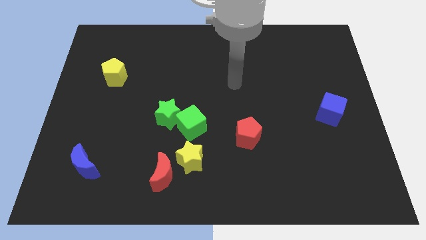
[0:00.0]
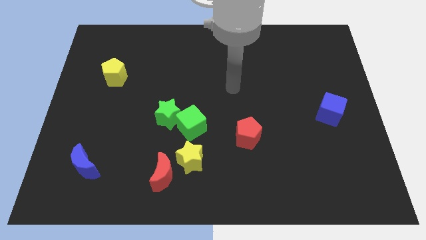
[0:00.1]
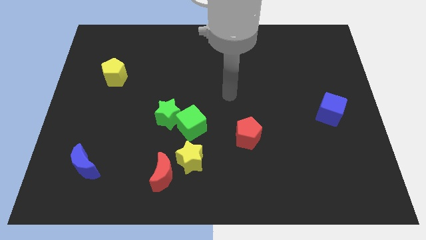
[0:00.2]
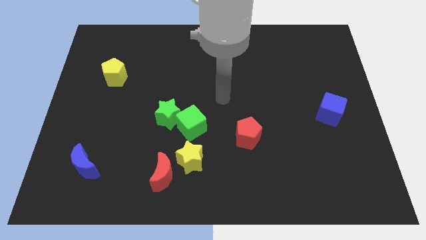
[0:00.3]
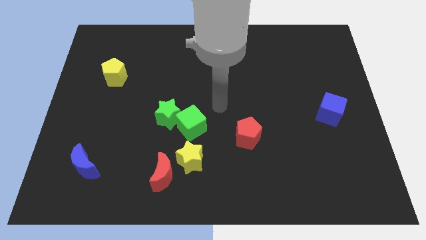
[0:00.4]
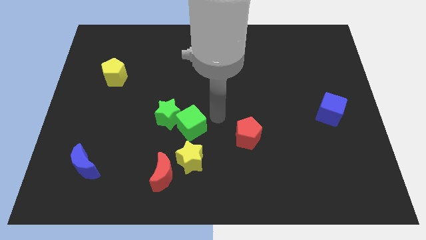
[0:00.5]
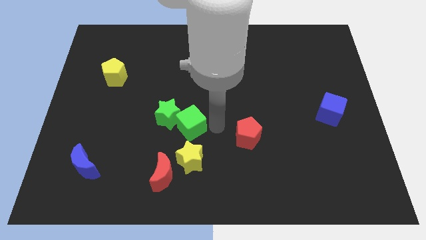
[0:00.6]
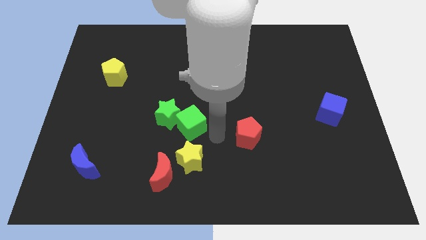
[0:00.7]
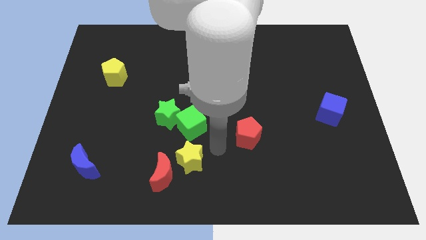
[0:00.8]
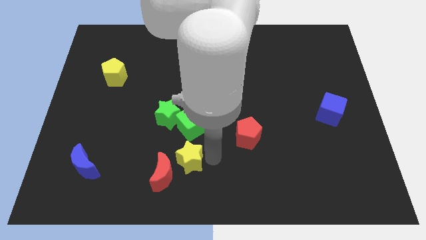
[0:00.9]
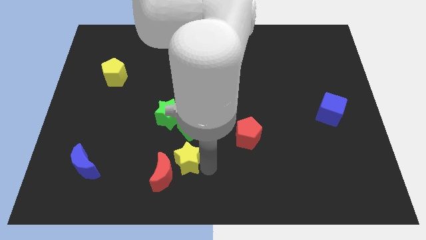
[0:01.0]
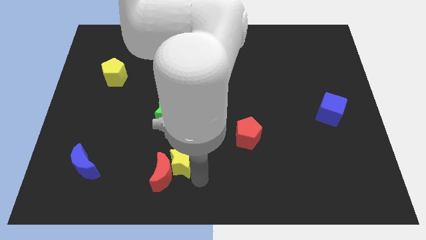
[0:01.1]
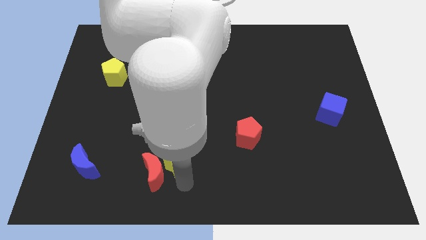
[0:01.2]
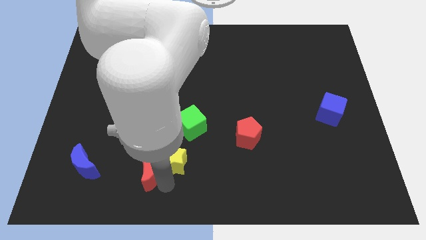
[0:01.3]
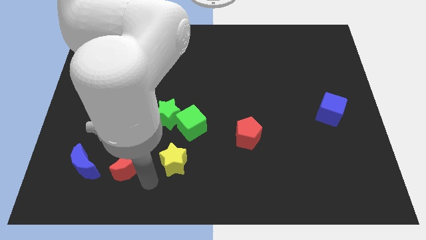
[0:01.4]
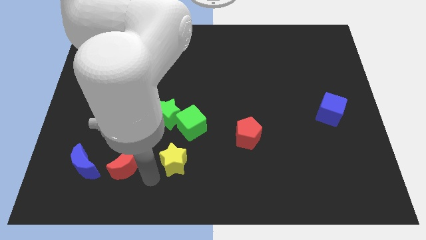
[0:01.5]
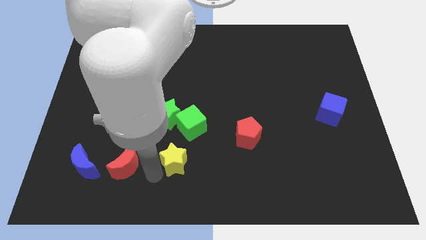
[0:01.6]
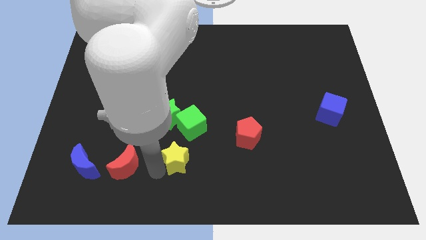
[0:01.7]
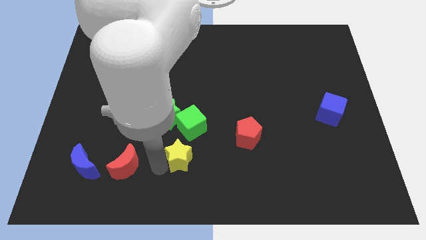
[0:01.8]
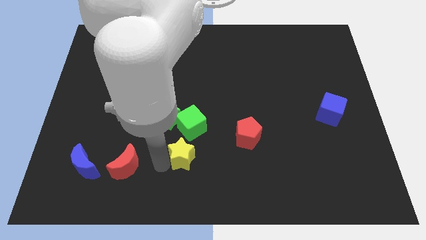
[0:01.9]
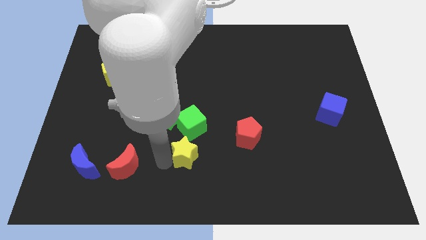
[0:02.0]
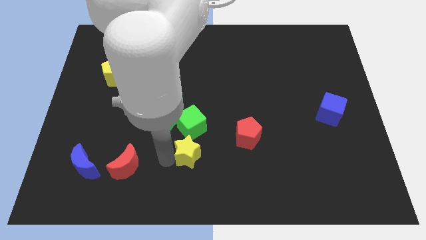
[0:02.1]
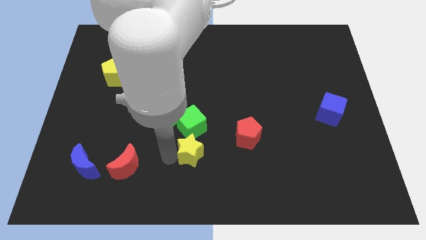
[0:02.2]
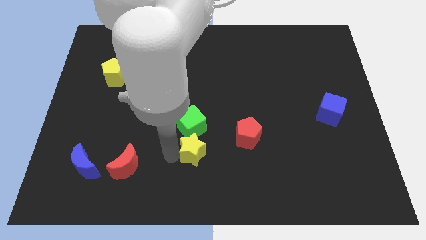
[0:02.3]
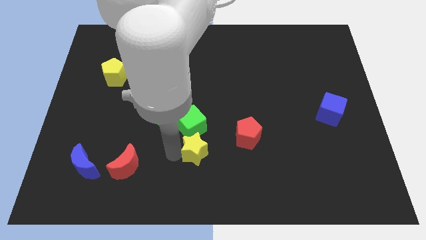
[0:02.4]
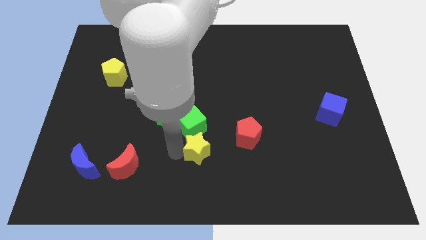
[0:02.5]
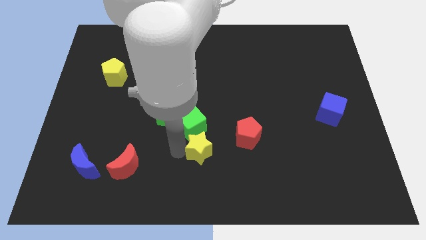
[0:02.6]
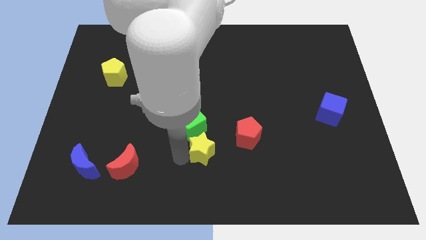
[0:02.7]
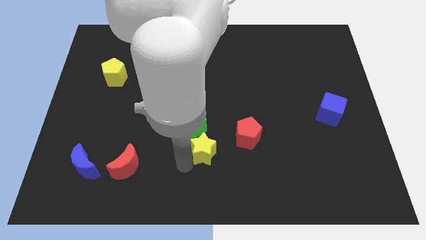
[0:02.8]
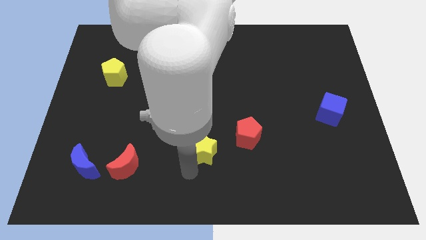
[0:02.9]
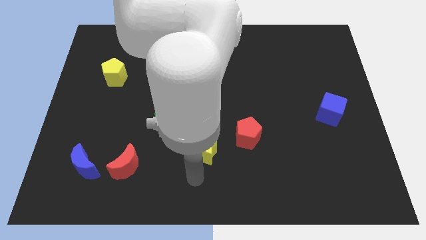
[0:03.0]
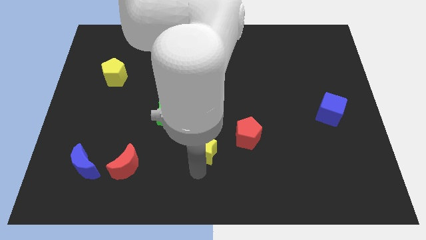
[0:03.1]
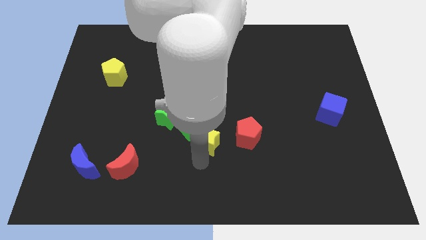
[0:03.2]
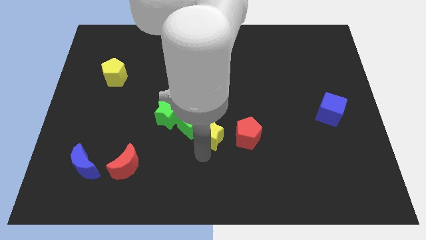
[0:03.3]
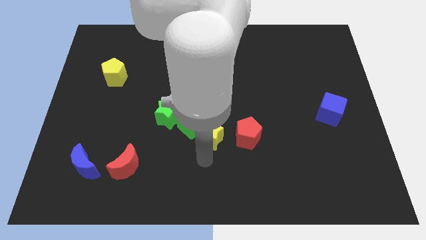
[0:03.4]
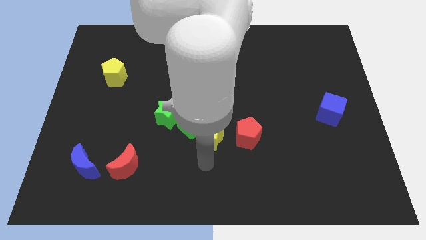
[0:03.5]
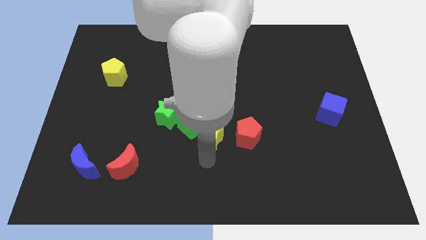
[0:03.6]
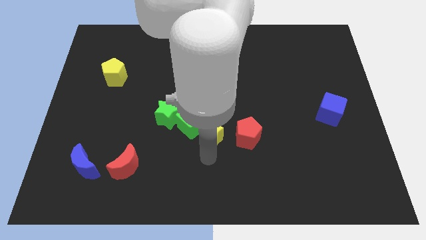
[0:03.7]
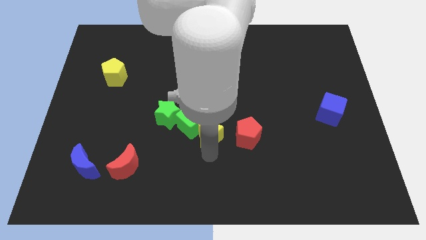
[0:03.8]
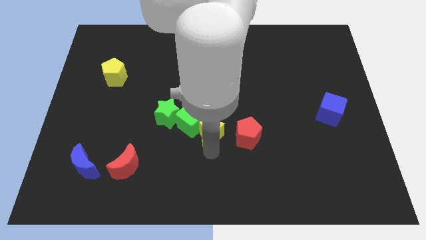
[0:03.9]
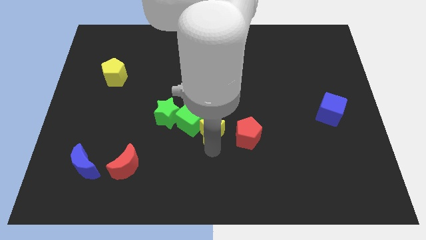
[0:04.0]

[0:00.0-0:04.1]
push the yellow star somewhat upwards

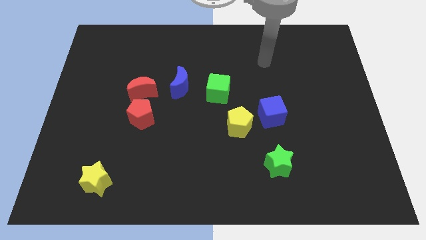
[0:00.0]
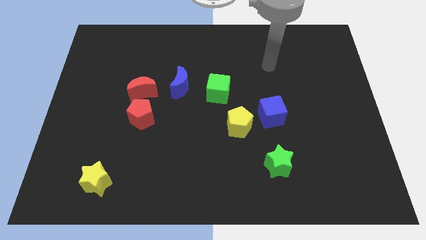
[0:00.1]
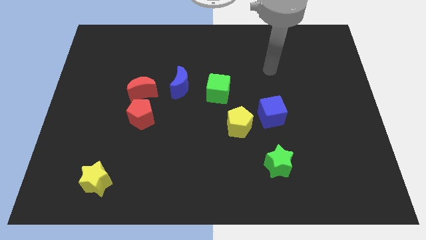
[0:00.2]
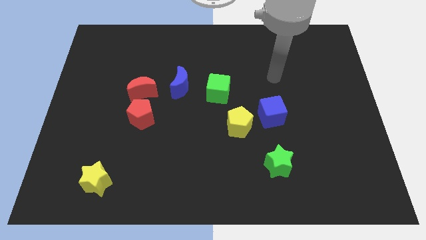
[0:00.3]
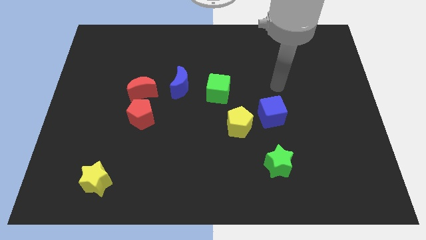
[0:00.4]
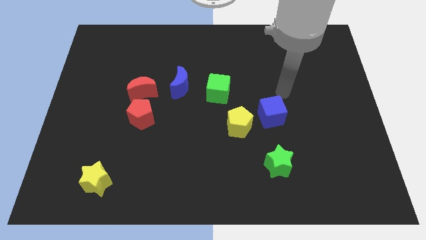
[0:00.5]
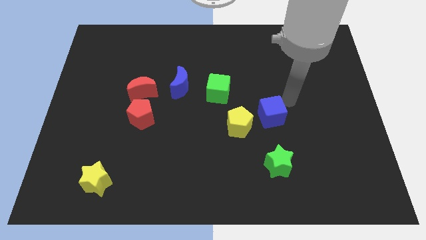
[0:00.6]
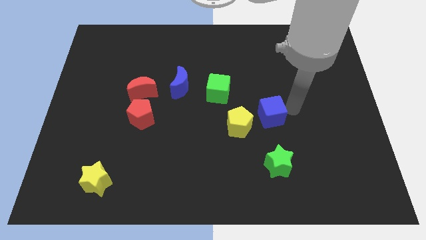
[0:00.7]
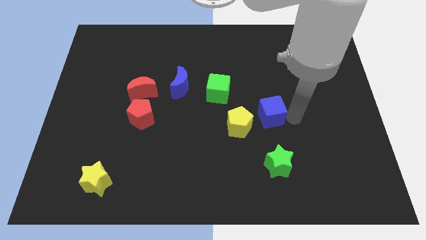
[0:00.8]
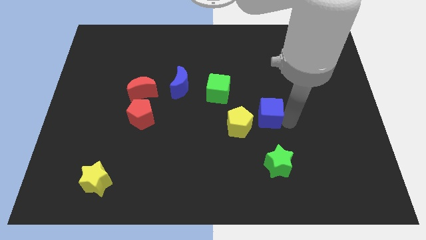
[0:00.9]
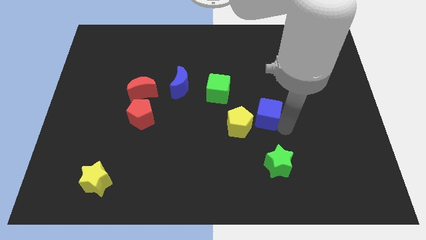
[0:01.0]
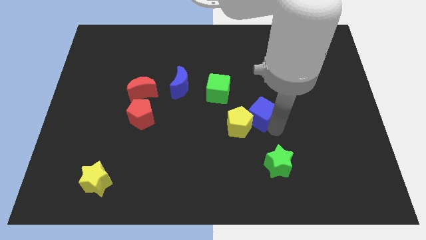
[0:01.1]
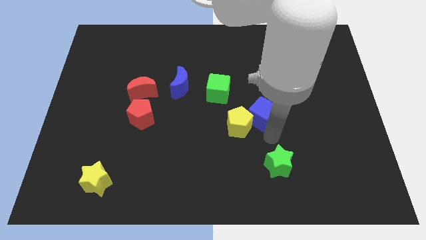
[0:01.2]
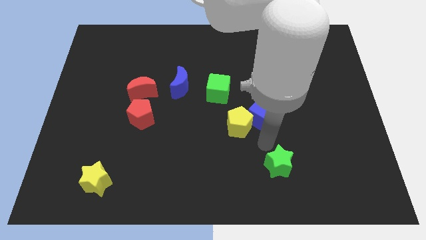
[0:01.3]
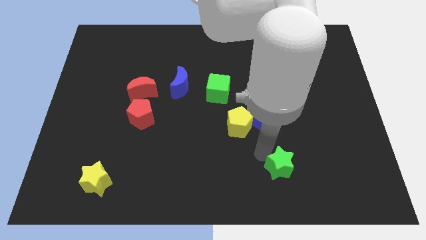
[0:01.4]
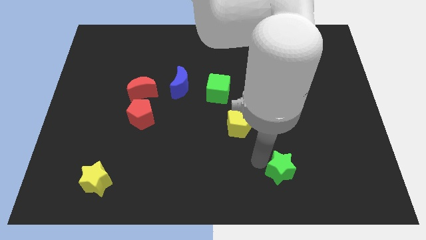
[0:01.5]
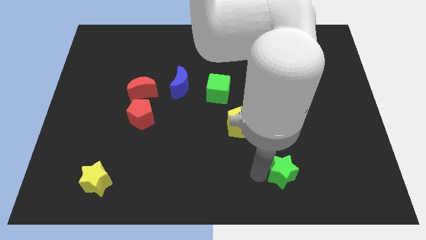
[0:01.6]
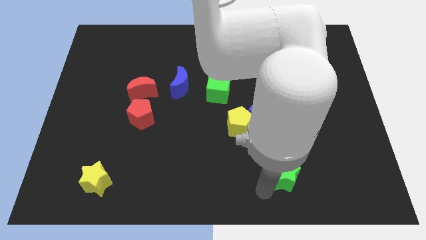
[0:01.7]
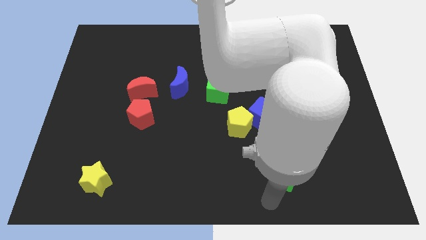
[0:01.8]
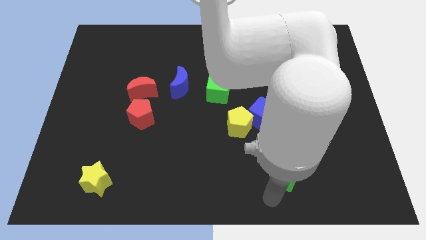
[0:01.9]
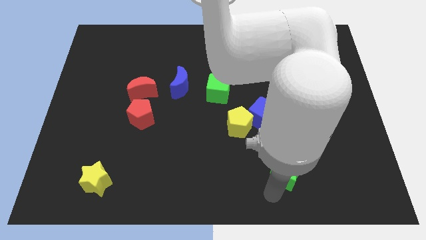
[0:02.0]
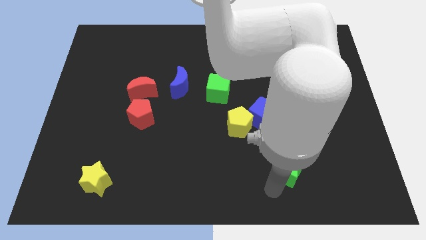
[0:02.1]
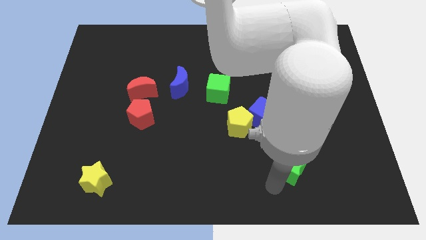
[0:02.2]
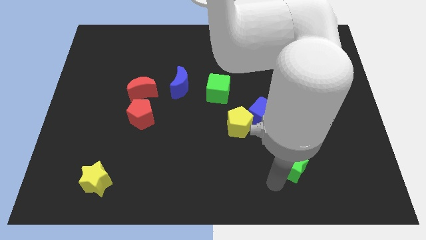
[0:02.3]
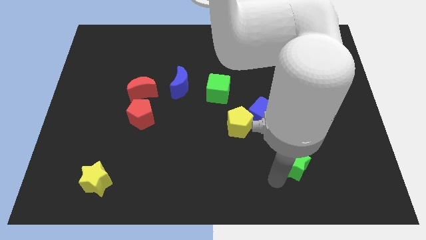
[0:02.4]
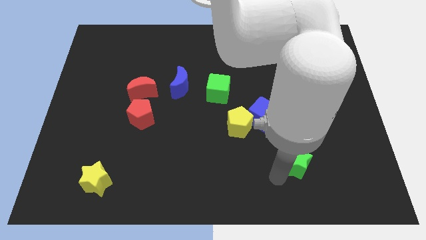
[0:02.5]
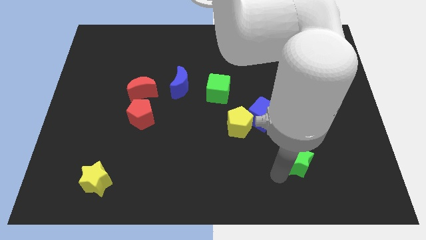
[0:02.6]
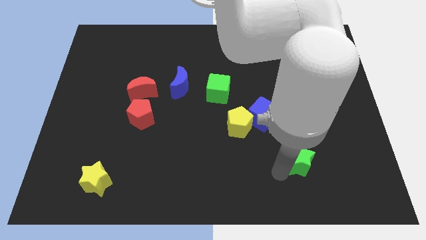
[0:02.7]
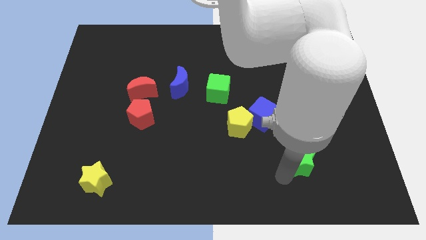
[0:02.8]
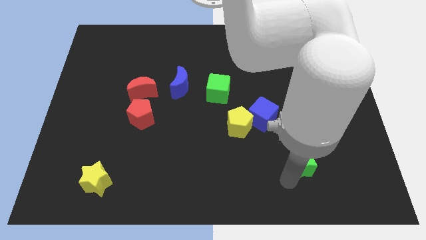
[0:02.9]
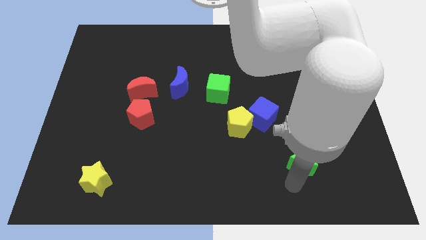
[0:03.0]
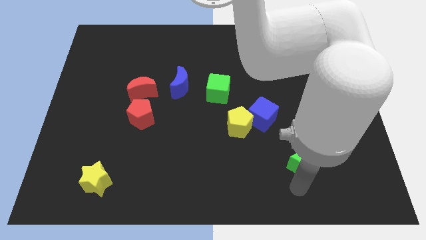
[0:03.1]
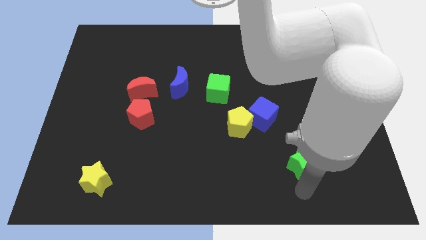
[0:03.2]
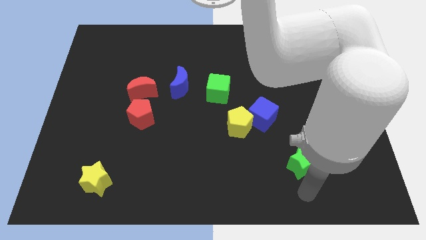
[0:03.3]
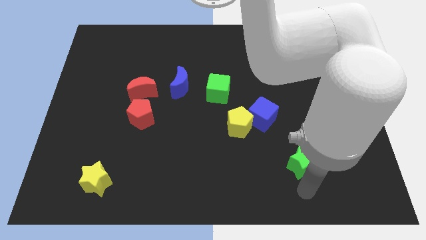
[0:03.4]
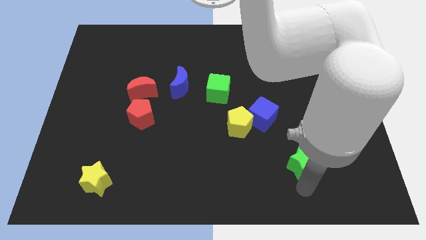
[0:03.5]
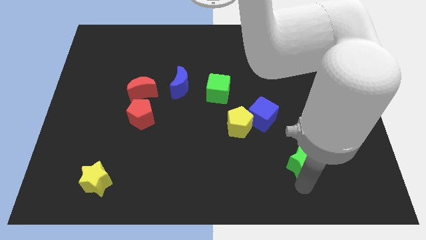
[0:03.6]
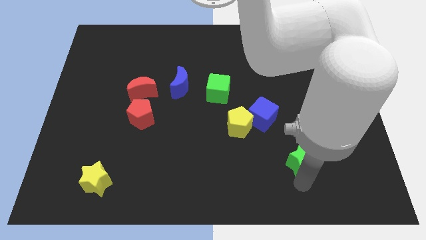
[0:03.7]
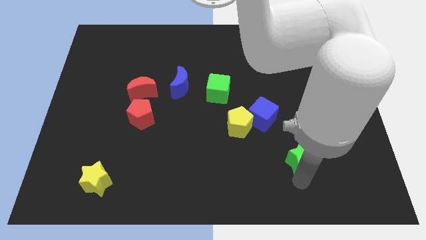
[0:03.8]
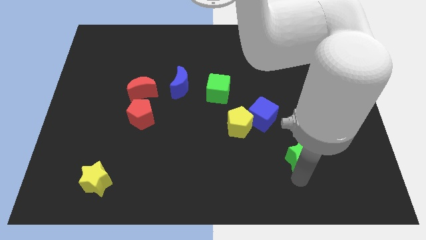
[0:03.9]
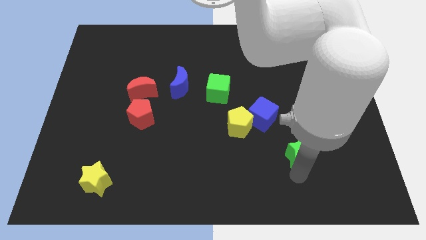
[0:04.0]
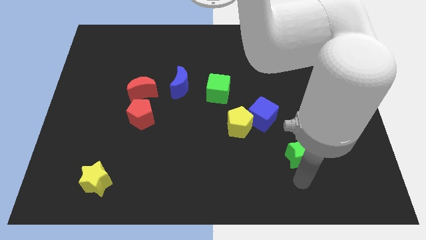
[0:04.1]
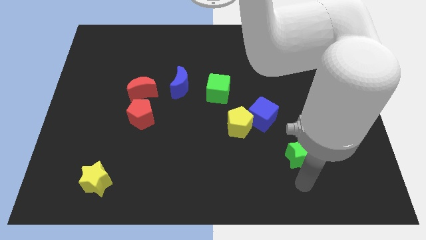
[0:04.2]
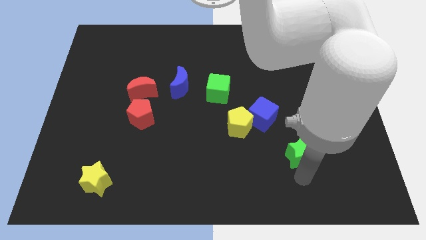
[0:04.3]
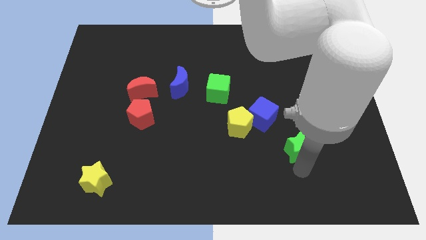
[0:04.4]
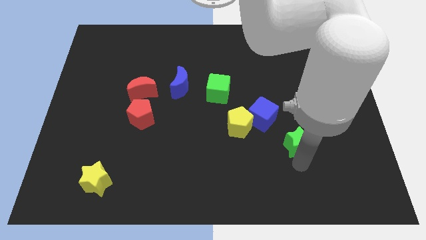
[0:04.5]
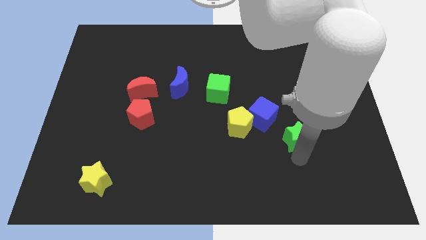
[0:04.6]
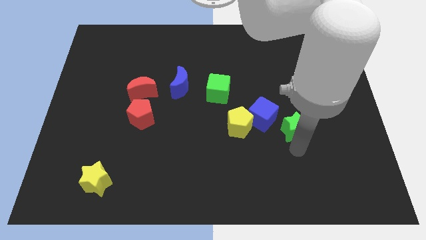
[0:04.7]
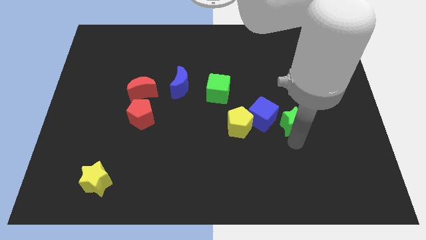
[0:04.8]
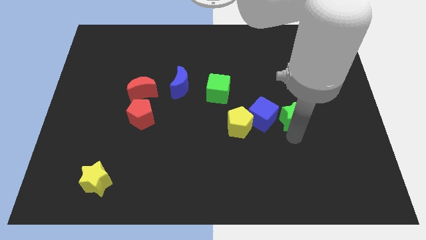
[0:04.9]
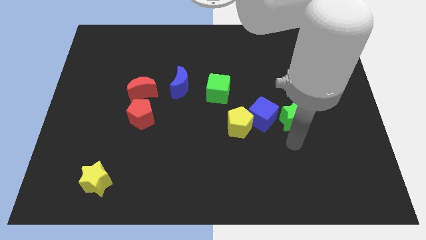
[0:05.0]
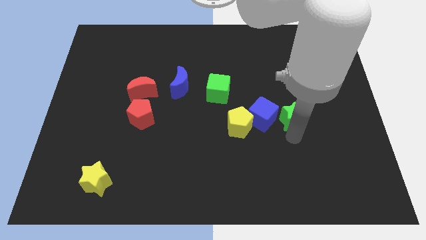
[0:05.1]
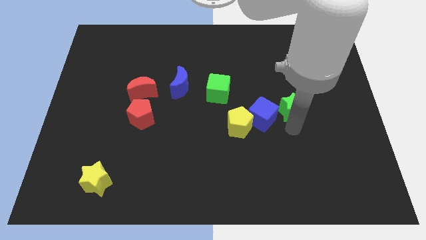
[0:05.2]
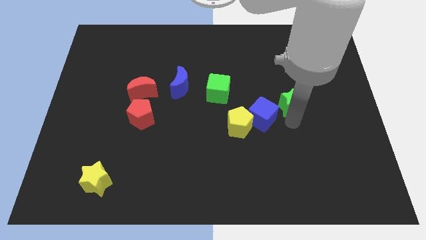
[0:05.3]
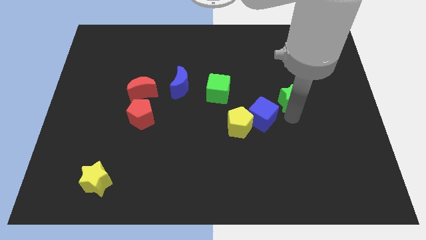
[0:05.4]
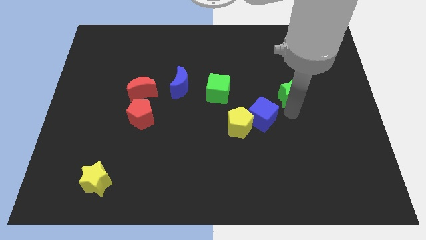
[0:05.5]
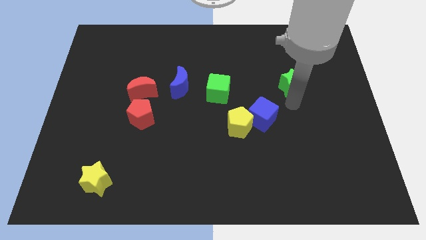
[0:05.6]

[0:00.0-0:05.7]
move the green star upwards
